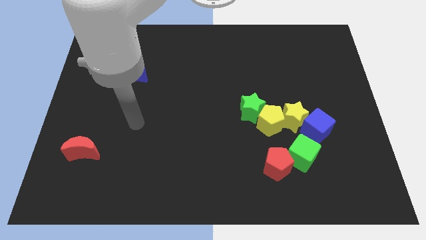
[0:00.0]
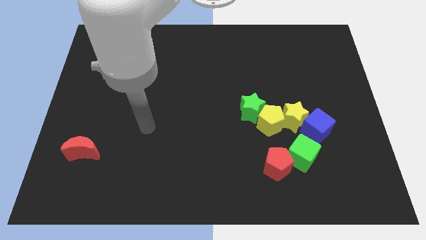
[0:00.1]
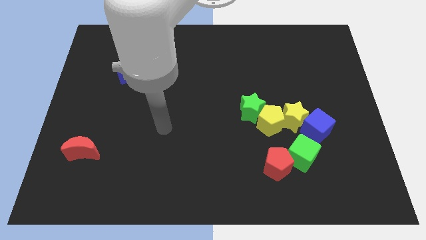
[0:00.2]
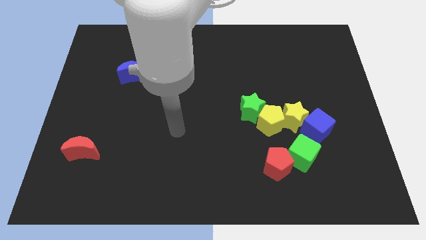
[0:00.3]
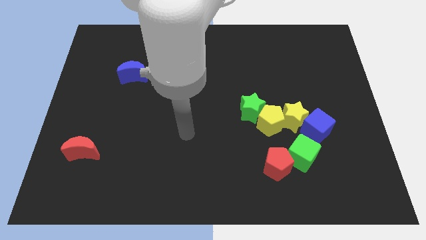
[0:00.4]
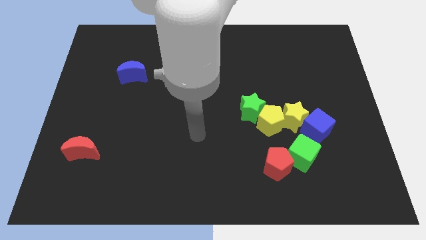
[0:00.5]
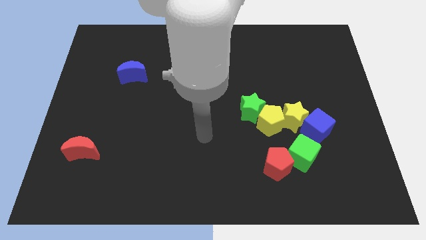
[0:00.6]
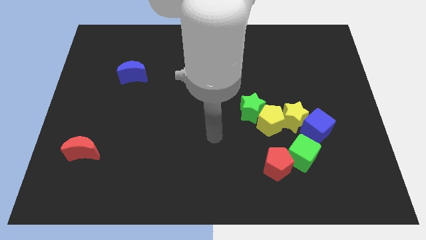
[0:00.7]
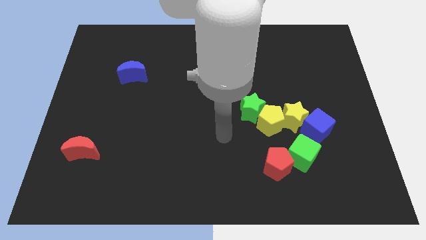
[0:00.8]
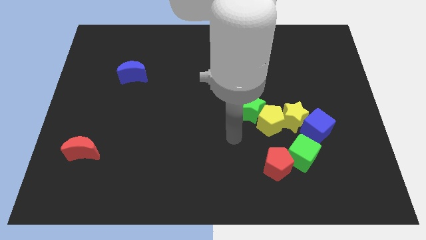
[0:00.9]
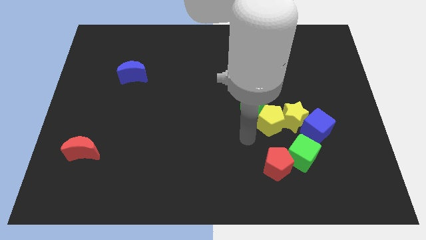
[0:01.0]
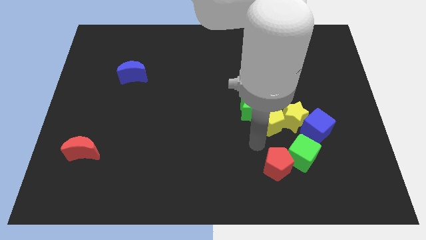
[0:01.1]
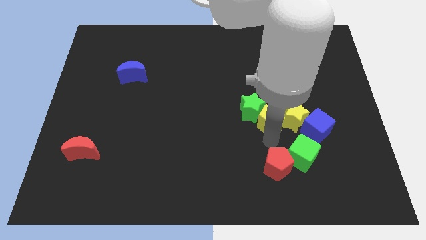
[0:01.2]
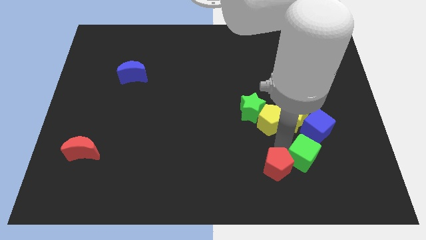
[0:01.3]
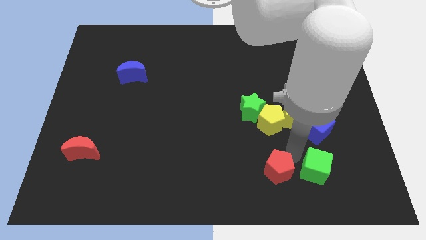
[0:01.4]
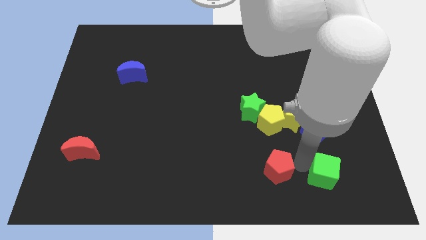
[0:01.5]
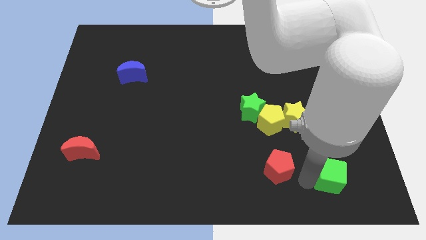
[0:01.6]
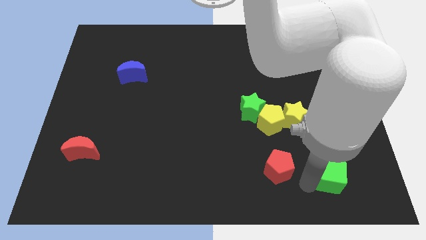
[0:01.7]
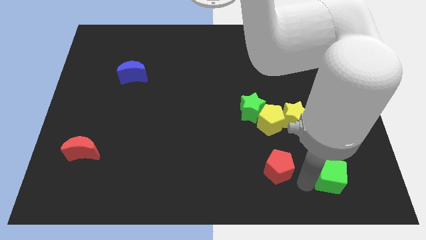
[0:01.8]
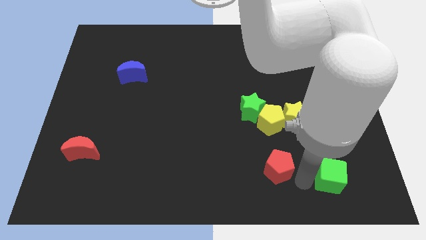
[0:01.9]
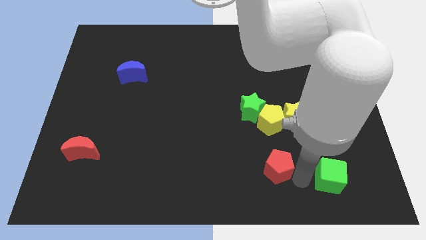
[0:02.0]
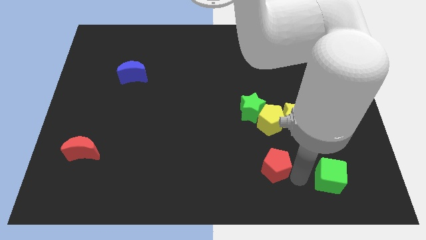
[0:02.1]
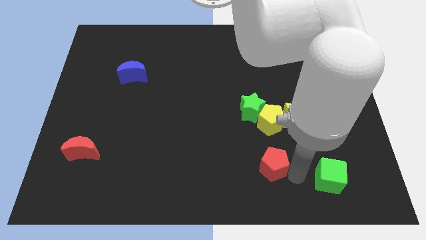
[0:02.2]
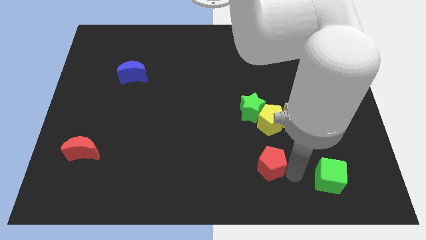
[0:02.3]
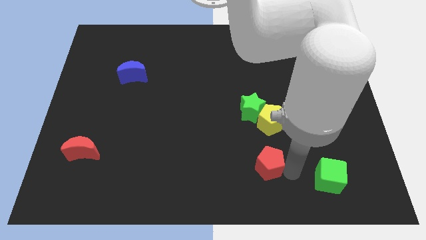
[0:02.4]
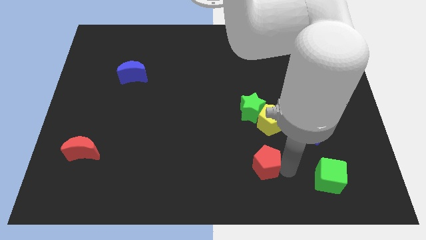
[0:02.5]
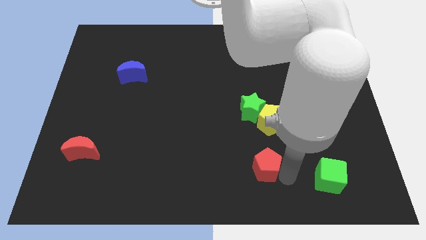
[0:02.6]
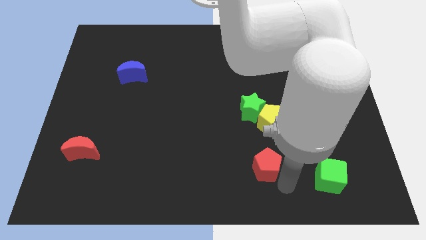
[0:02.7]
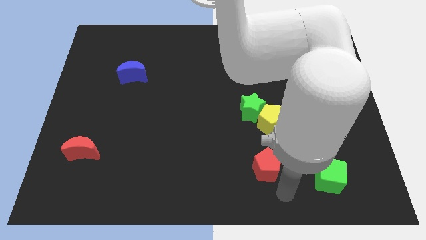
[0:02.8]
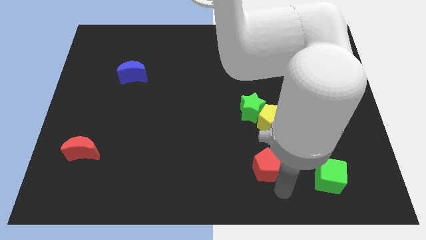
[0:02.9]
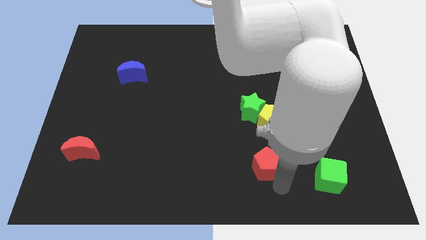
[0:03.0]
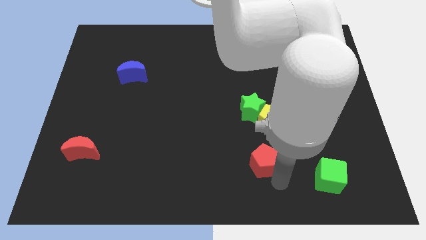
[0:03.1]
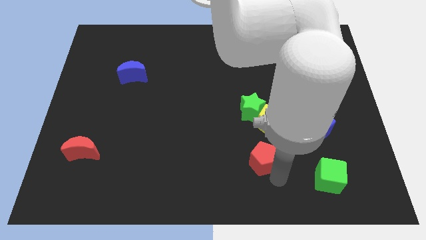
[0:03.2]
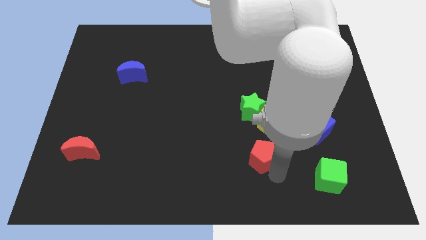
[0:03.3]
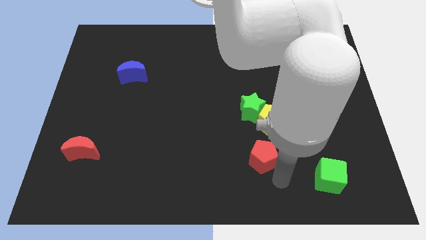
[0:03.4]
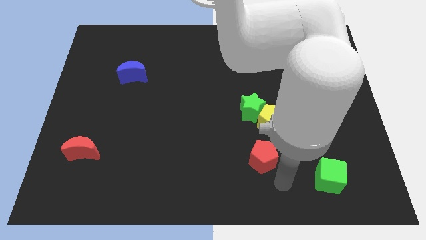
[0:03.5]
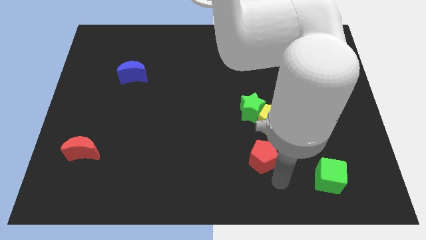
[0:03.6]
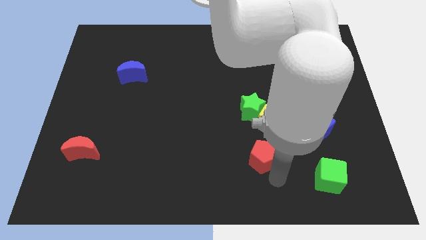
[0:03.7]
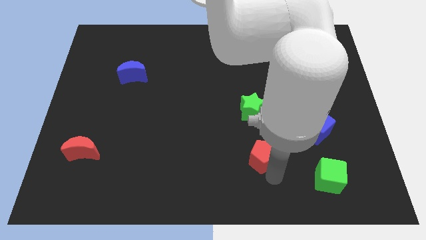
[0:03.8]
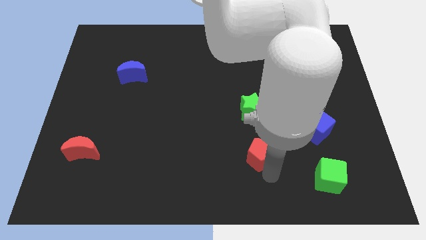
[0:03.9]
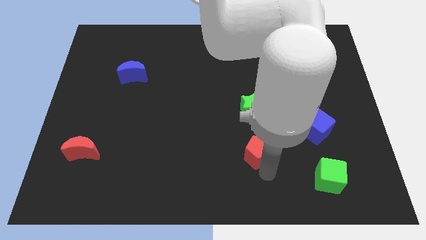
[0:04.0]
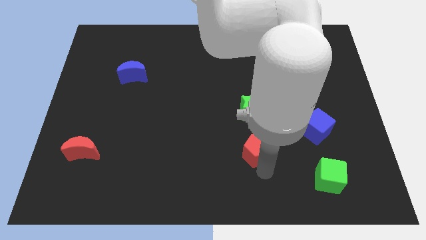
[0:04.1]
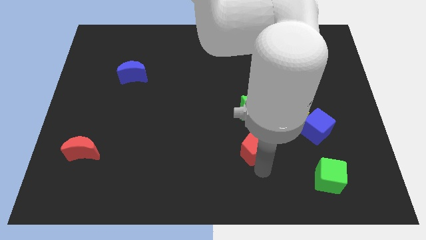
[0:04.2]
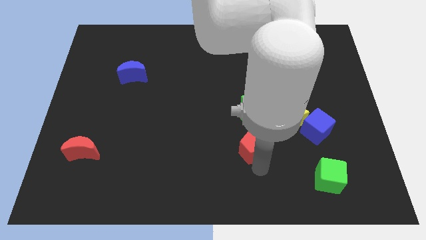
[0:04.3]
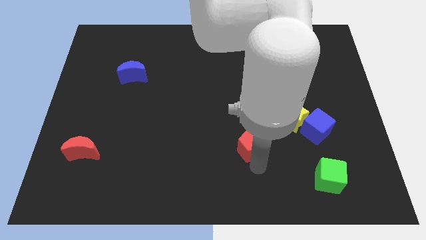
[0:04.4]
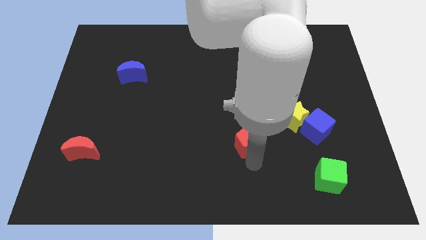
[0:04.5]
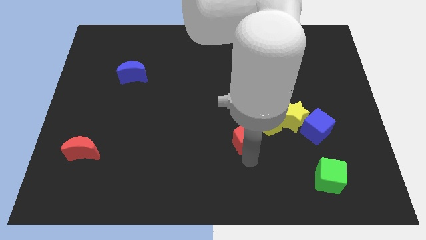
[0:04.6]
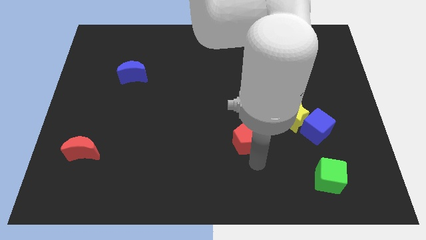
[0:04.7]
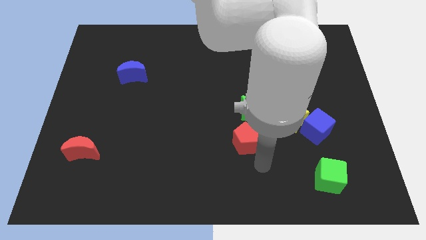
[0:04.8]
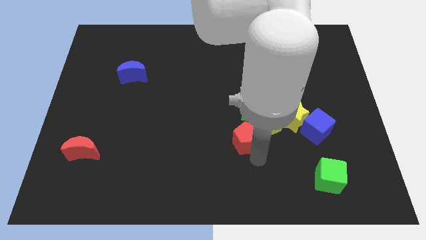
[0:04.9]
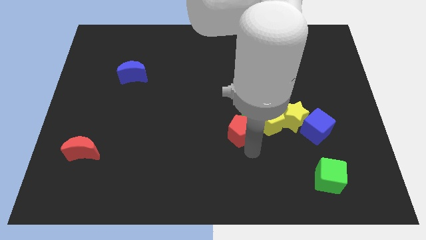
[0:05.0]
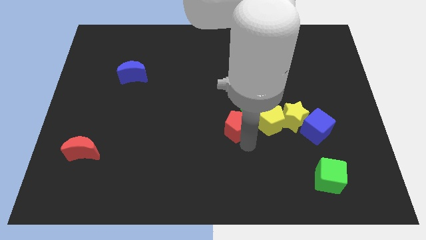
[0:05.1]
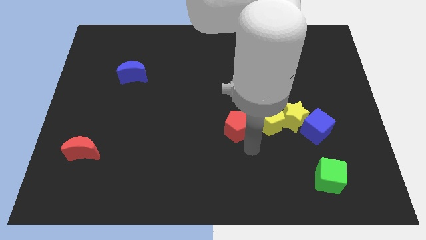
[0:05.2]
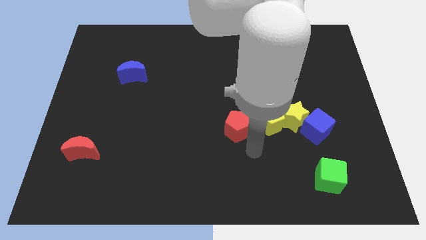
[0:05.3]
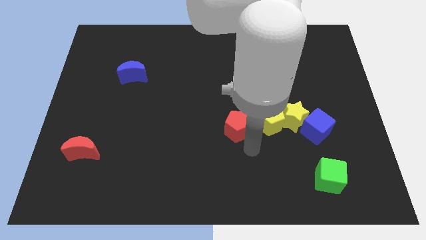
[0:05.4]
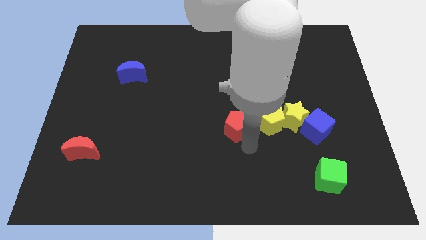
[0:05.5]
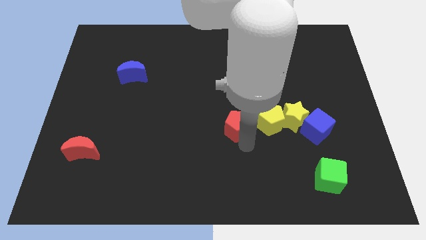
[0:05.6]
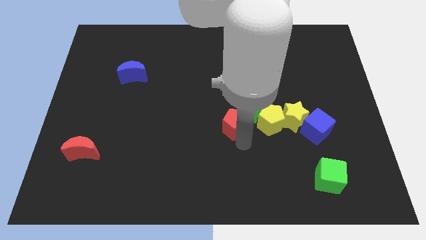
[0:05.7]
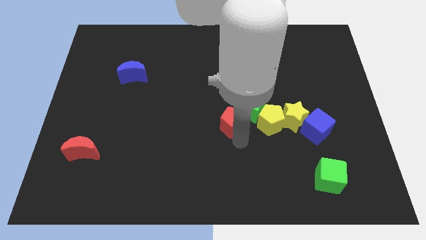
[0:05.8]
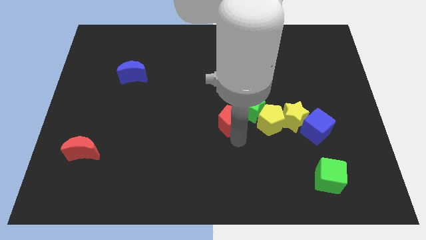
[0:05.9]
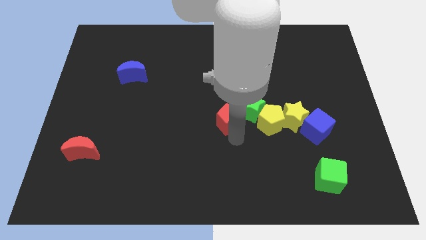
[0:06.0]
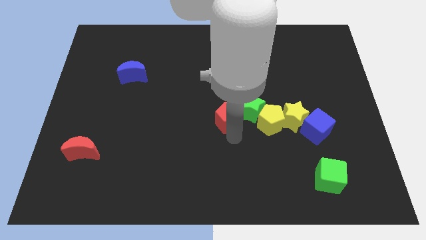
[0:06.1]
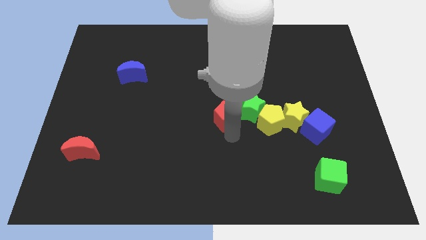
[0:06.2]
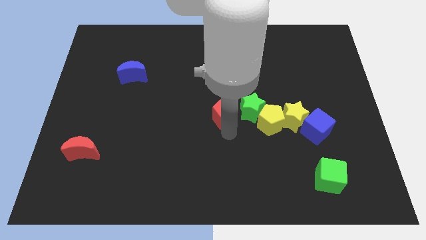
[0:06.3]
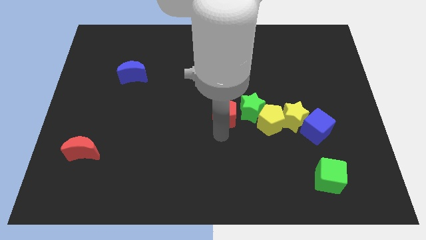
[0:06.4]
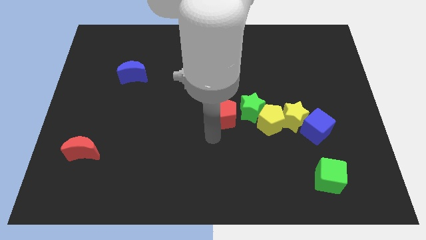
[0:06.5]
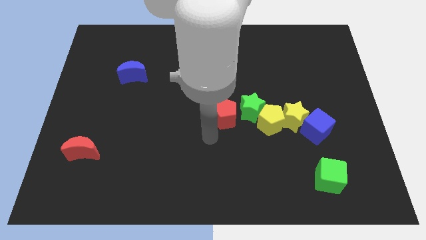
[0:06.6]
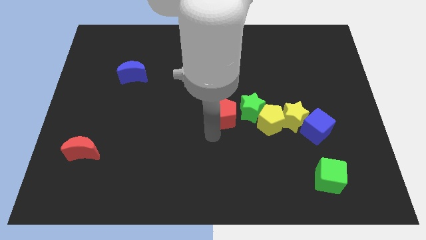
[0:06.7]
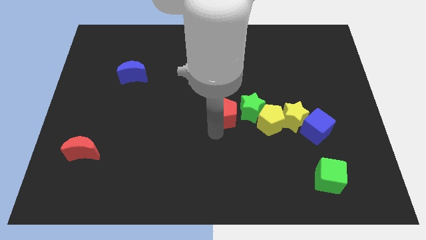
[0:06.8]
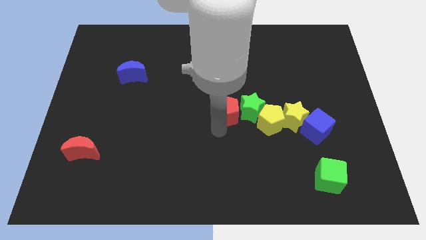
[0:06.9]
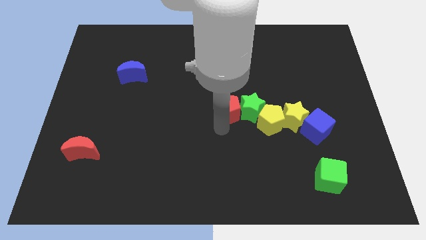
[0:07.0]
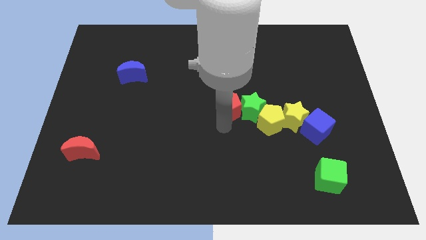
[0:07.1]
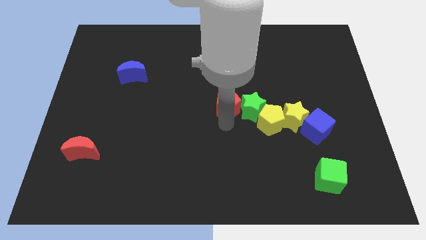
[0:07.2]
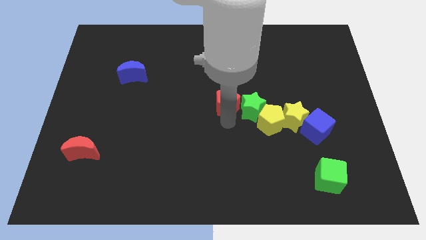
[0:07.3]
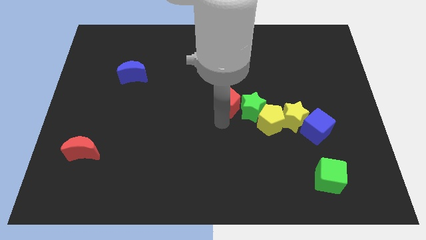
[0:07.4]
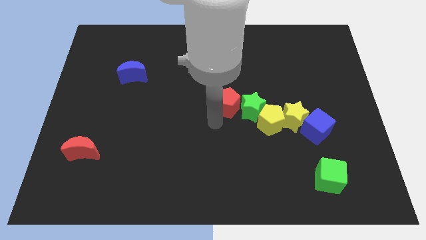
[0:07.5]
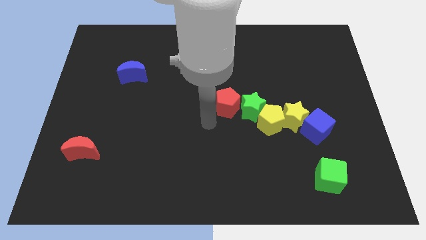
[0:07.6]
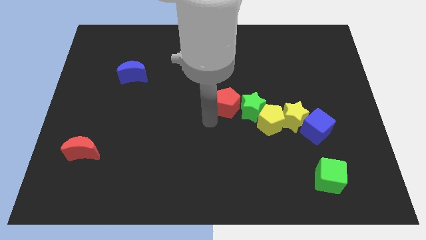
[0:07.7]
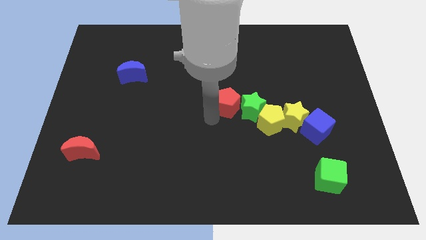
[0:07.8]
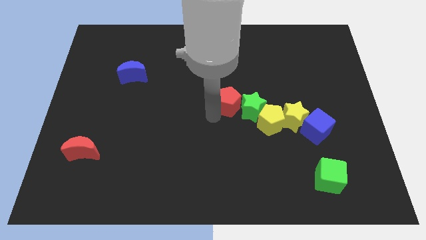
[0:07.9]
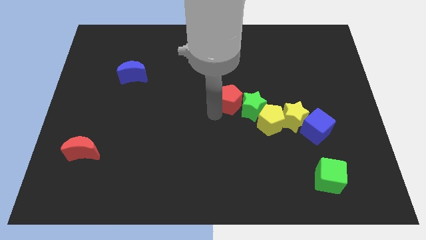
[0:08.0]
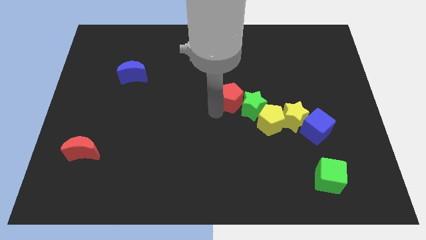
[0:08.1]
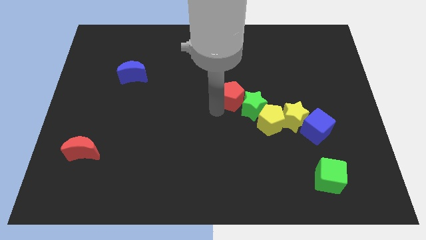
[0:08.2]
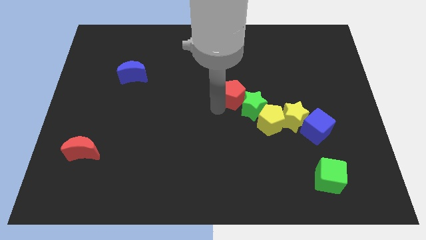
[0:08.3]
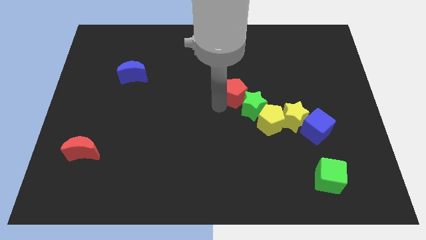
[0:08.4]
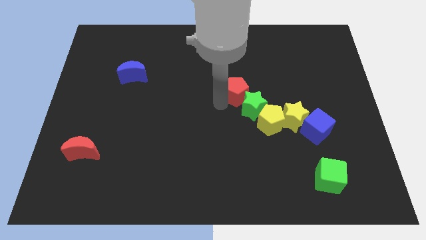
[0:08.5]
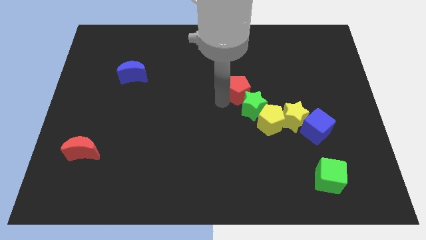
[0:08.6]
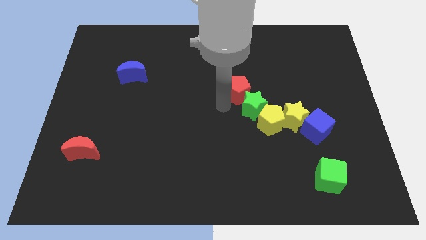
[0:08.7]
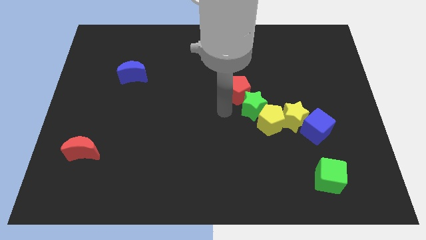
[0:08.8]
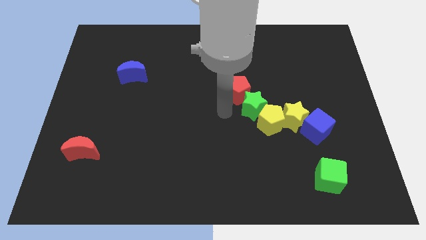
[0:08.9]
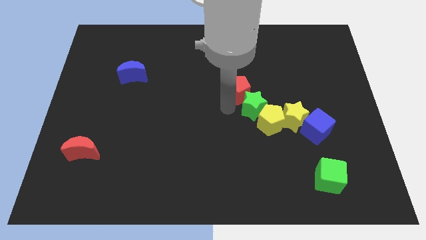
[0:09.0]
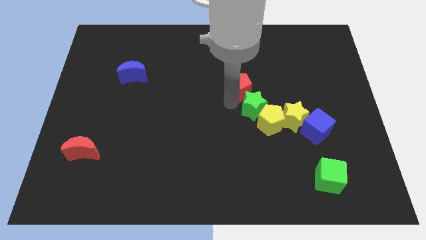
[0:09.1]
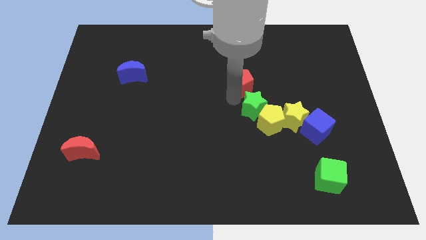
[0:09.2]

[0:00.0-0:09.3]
push the red pentagon upwards
